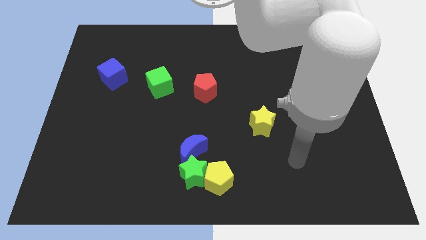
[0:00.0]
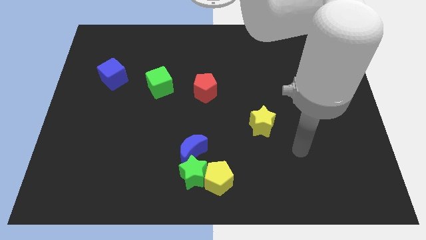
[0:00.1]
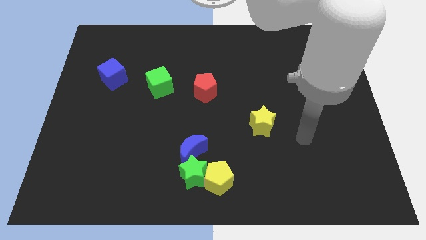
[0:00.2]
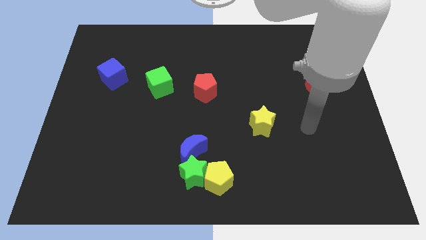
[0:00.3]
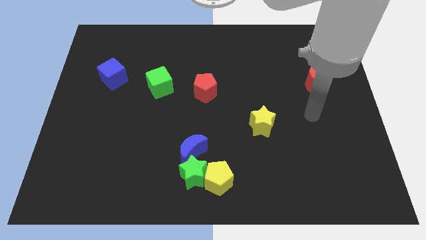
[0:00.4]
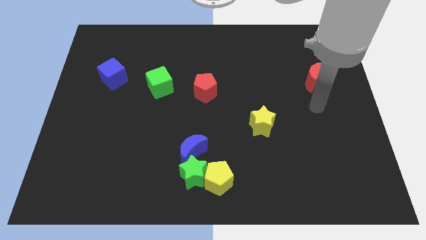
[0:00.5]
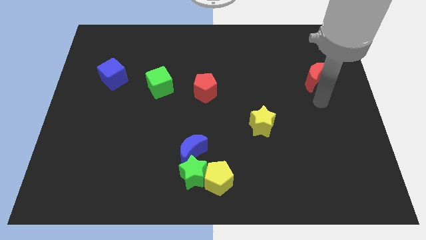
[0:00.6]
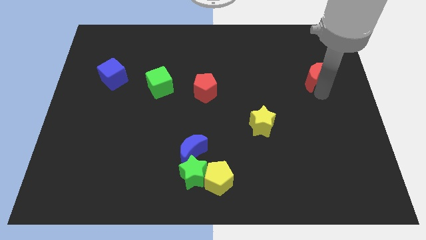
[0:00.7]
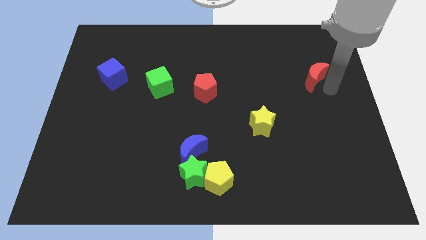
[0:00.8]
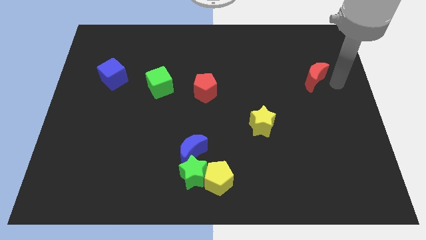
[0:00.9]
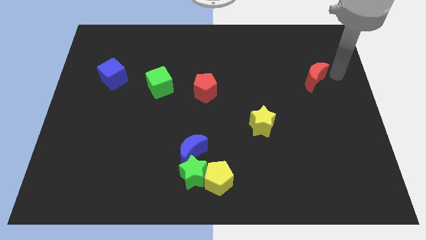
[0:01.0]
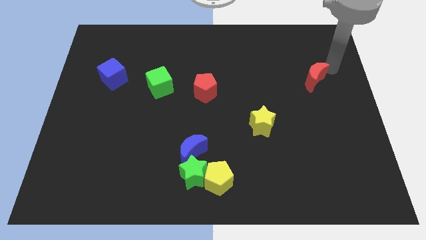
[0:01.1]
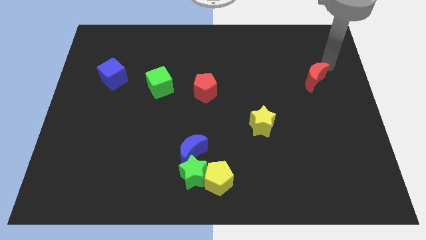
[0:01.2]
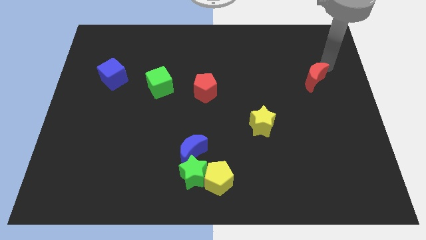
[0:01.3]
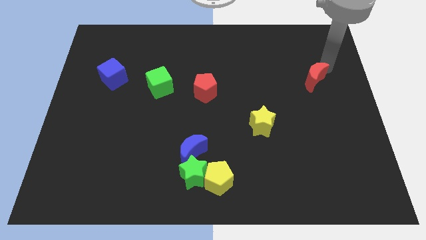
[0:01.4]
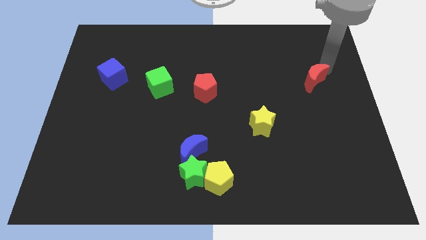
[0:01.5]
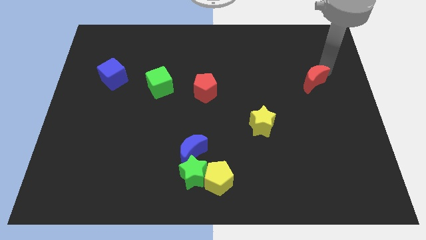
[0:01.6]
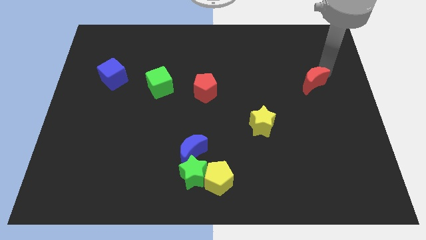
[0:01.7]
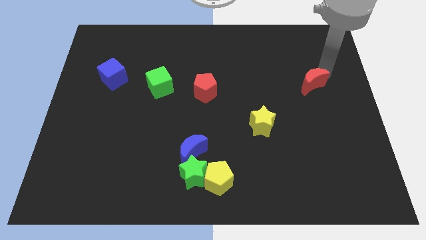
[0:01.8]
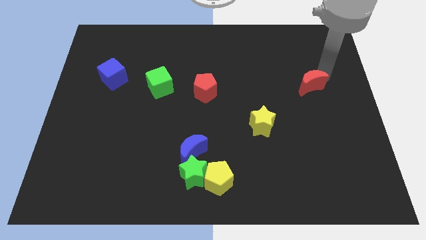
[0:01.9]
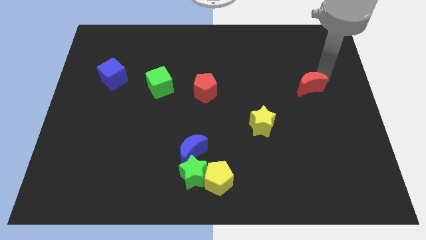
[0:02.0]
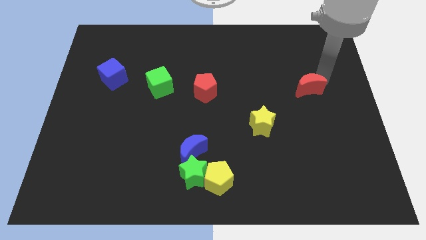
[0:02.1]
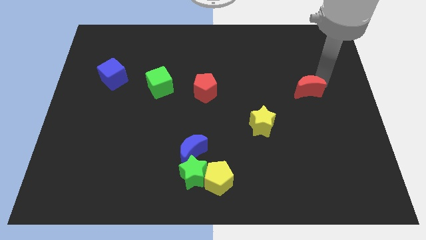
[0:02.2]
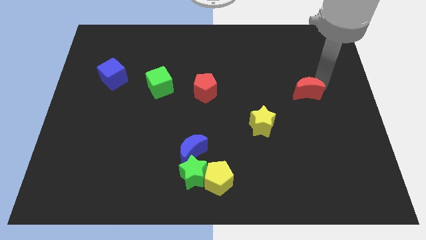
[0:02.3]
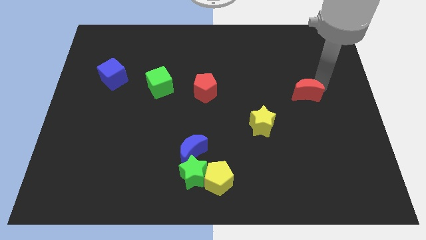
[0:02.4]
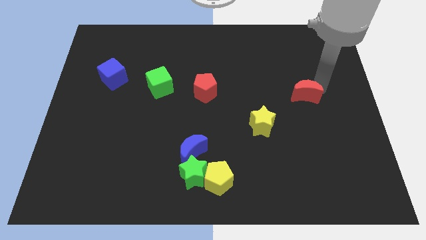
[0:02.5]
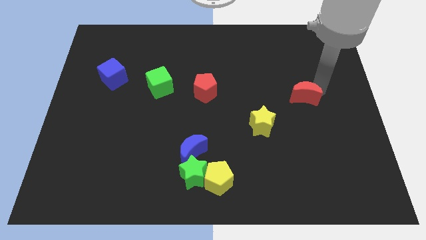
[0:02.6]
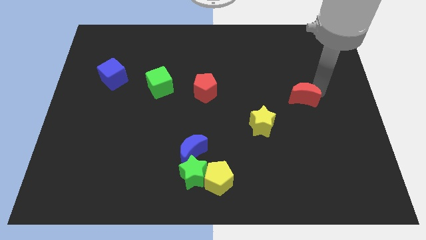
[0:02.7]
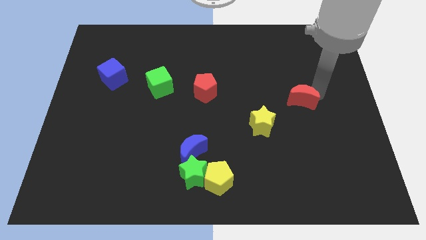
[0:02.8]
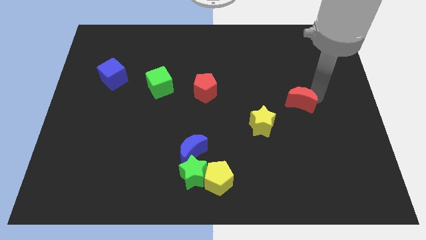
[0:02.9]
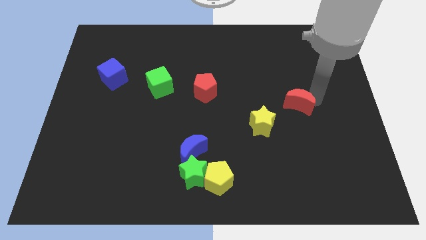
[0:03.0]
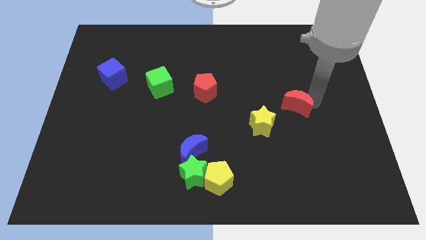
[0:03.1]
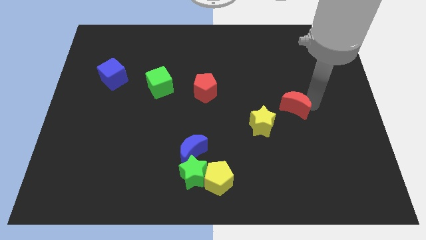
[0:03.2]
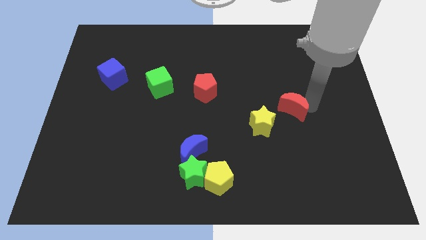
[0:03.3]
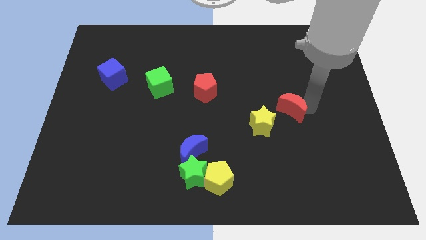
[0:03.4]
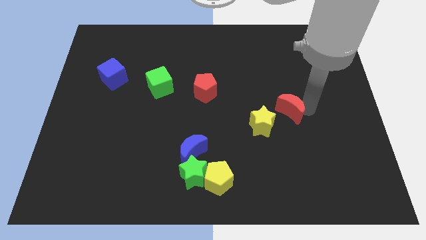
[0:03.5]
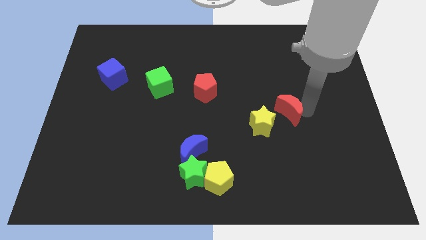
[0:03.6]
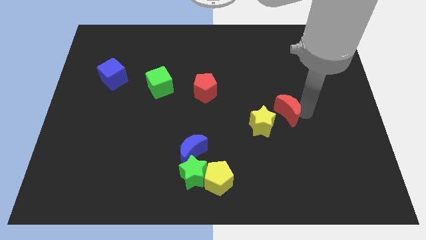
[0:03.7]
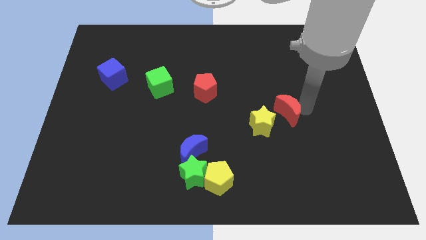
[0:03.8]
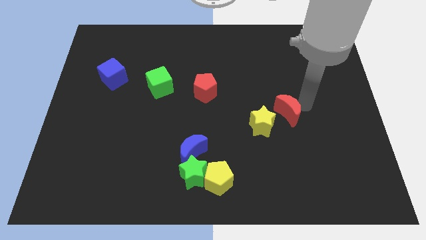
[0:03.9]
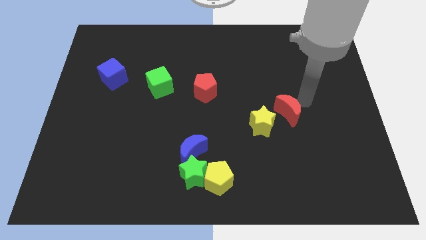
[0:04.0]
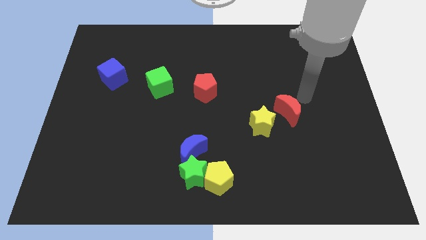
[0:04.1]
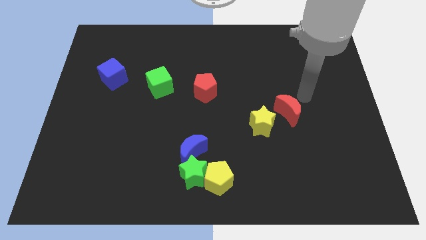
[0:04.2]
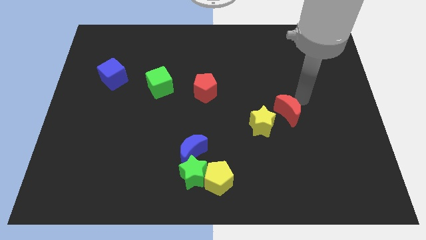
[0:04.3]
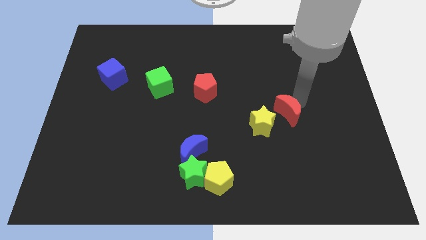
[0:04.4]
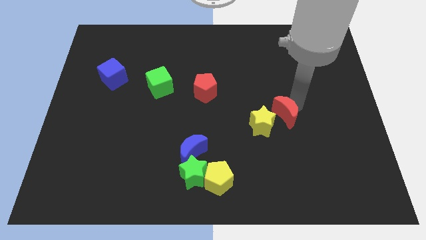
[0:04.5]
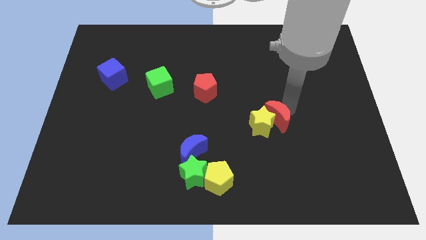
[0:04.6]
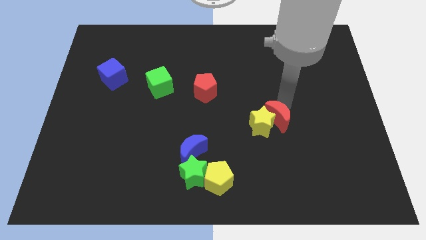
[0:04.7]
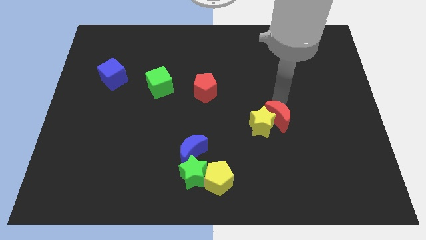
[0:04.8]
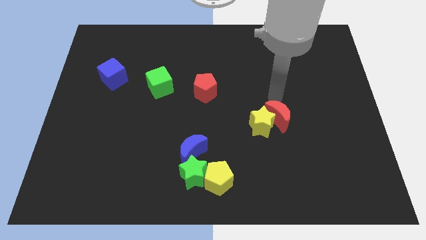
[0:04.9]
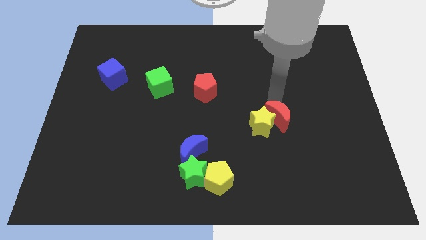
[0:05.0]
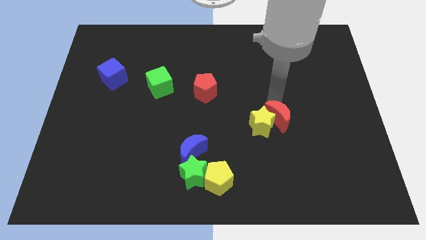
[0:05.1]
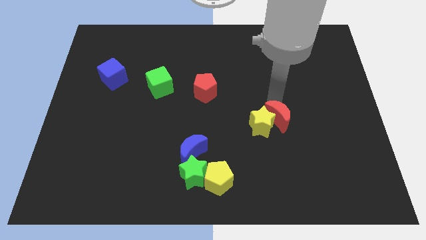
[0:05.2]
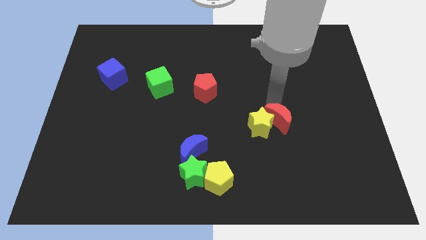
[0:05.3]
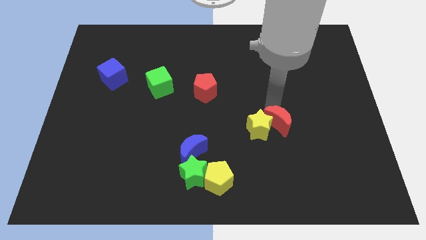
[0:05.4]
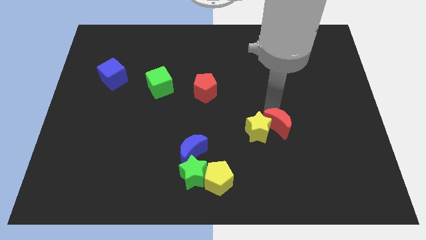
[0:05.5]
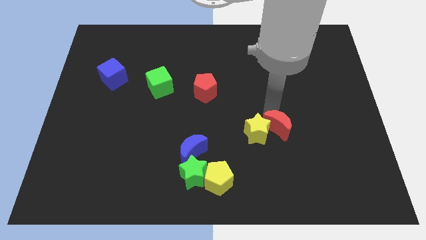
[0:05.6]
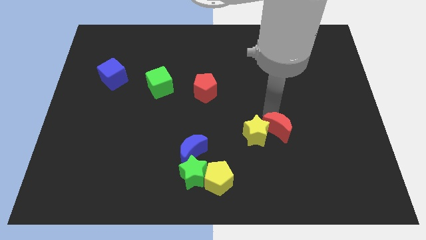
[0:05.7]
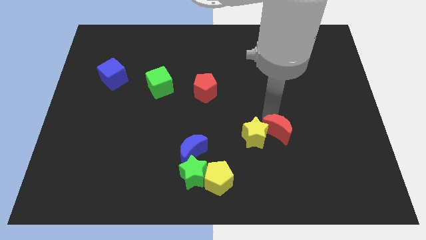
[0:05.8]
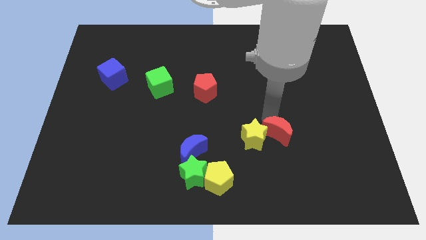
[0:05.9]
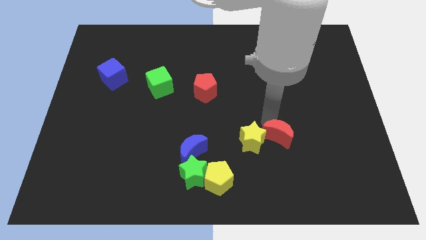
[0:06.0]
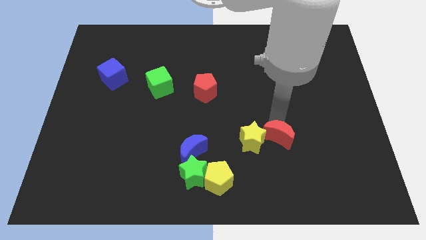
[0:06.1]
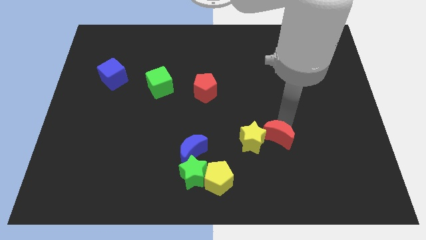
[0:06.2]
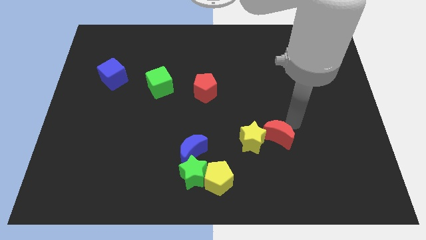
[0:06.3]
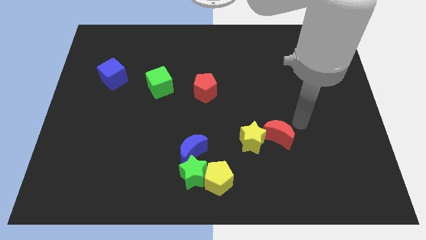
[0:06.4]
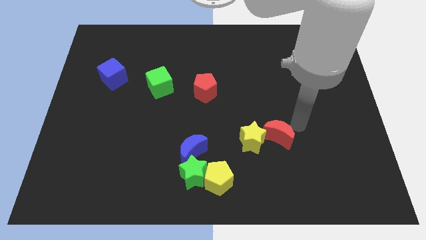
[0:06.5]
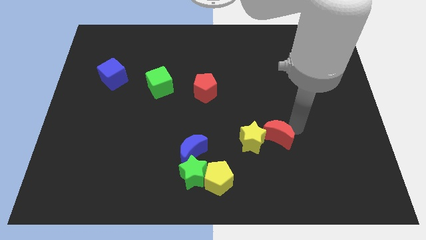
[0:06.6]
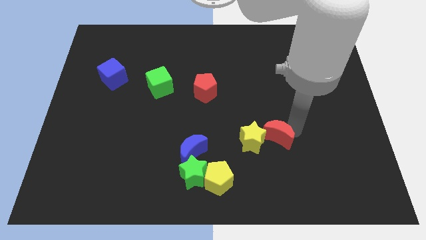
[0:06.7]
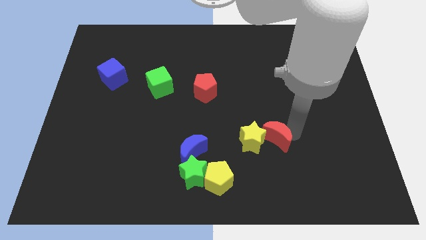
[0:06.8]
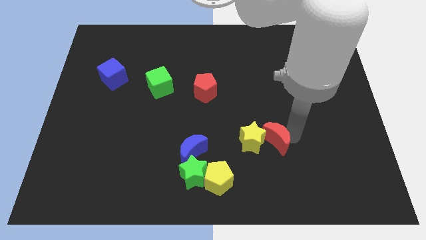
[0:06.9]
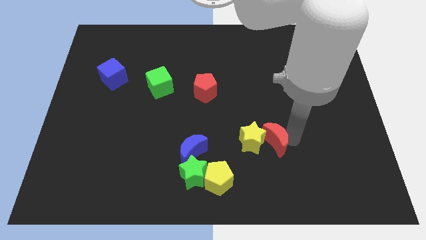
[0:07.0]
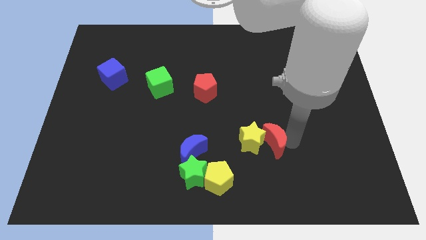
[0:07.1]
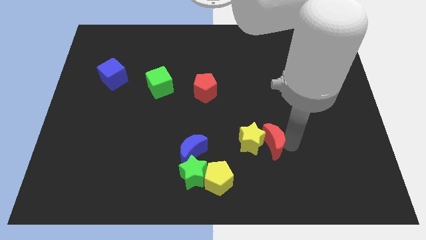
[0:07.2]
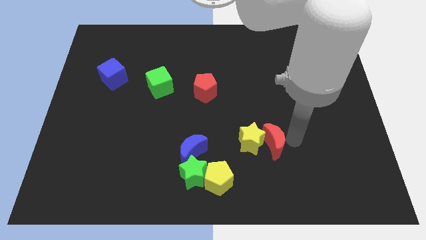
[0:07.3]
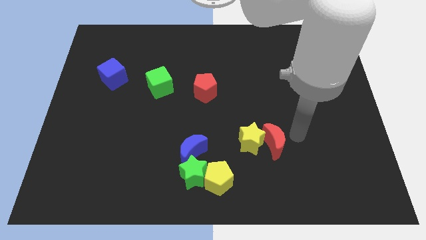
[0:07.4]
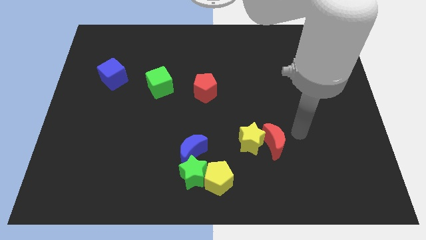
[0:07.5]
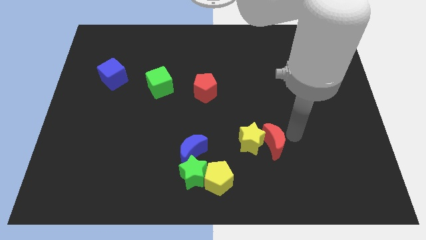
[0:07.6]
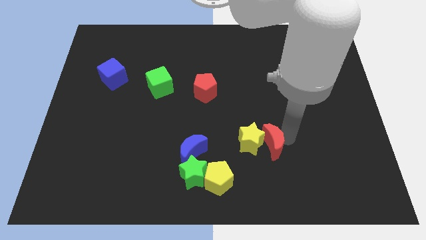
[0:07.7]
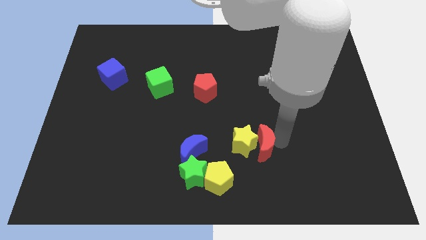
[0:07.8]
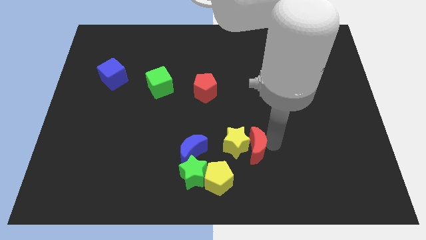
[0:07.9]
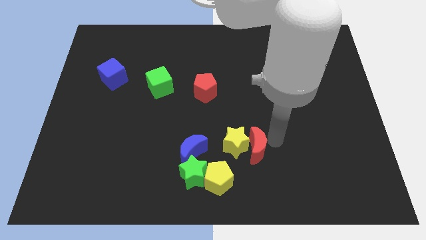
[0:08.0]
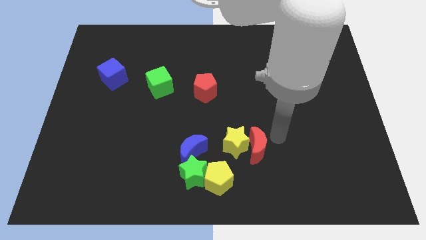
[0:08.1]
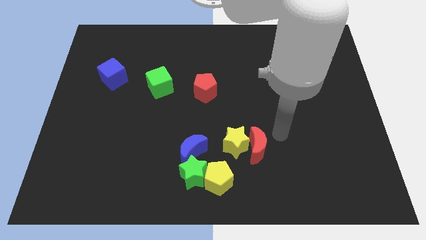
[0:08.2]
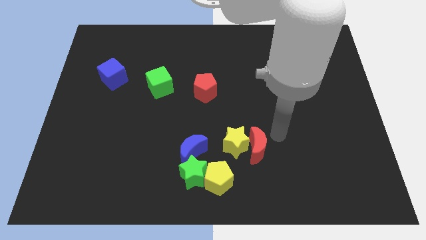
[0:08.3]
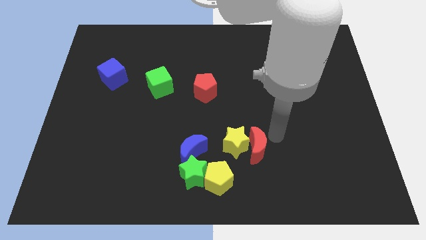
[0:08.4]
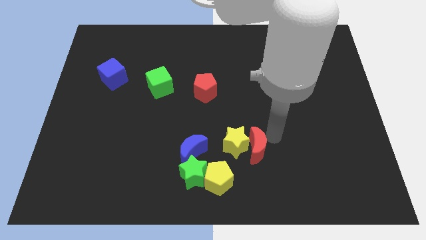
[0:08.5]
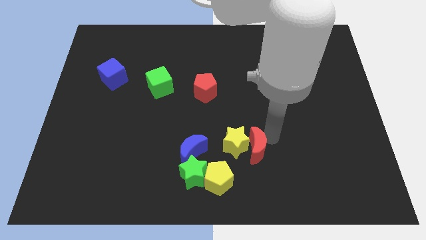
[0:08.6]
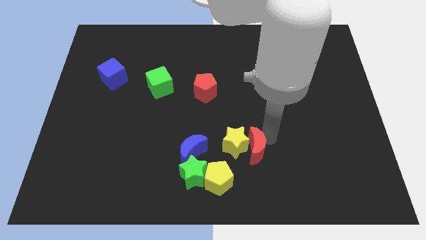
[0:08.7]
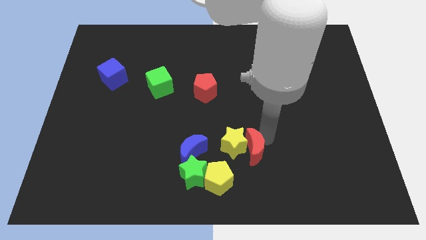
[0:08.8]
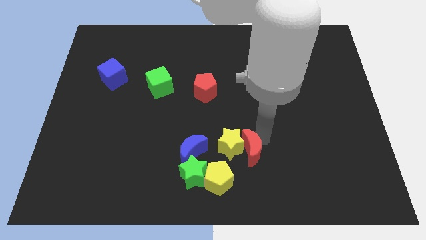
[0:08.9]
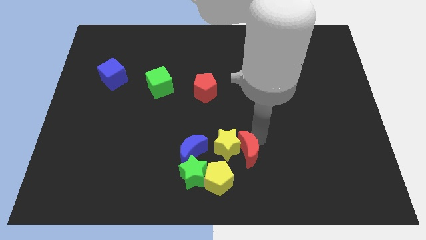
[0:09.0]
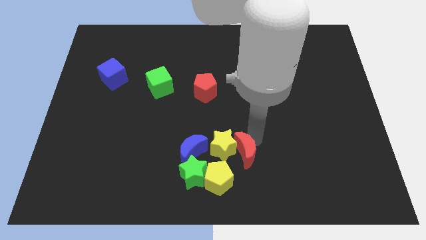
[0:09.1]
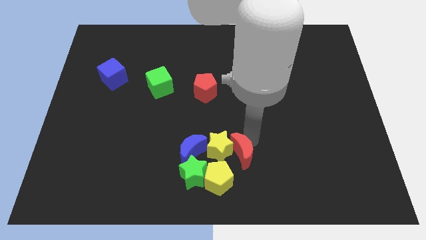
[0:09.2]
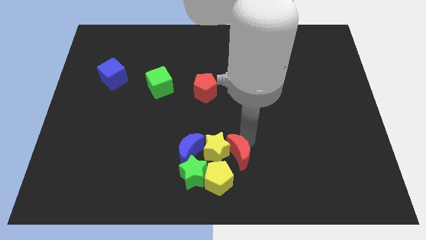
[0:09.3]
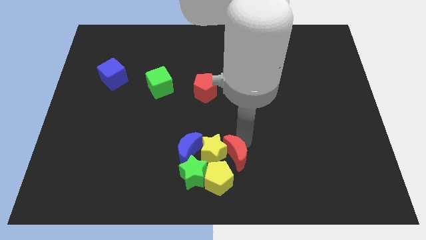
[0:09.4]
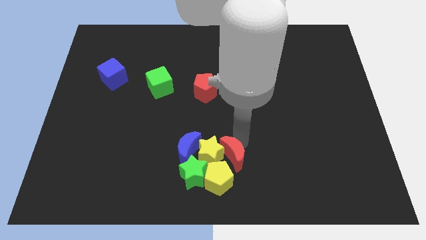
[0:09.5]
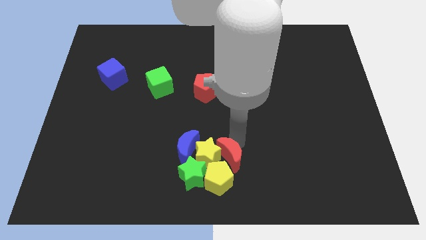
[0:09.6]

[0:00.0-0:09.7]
slide the red moon next to the yellow pentagon
